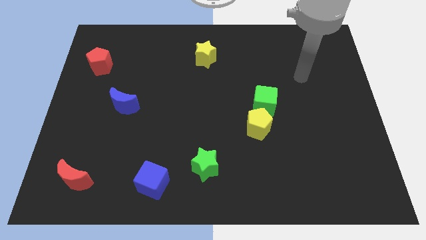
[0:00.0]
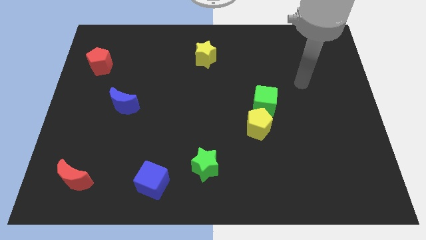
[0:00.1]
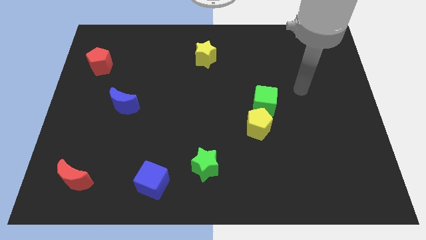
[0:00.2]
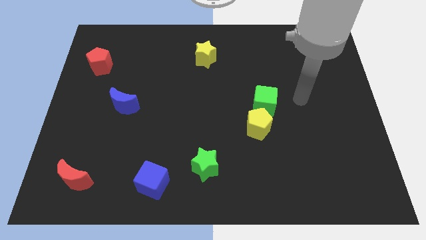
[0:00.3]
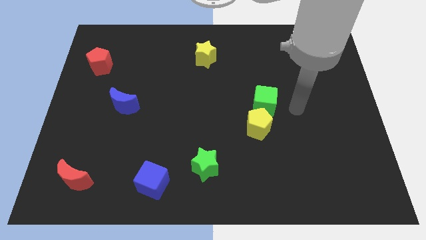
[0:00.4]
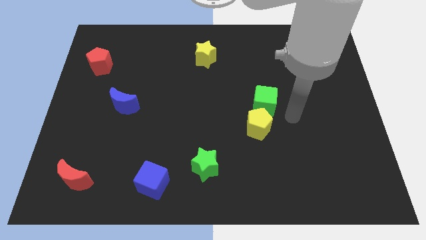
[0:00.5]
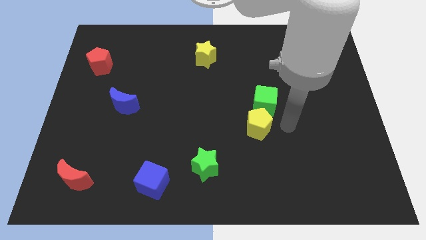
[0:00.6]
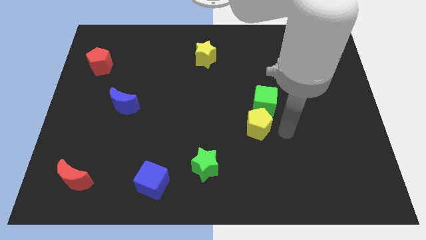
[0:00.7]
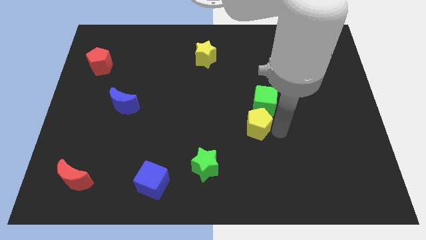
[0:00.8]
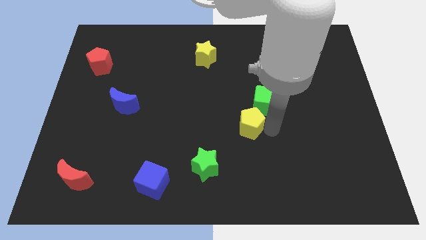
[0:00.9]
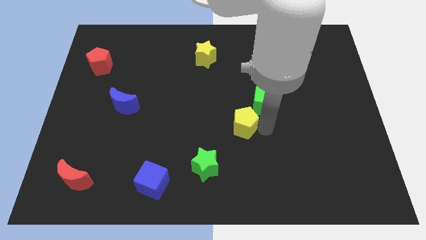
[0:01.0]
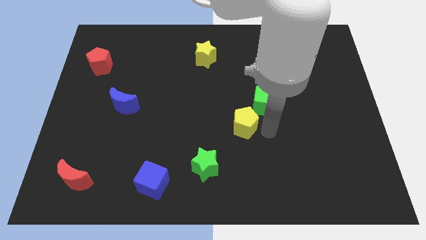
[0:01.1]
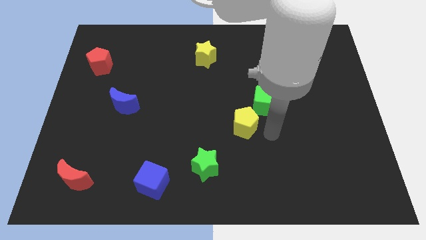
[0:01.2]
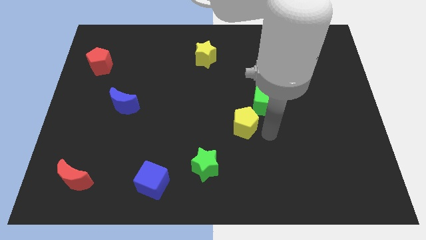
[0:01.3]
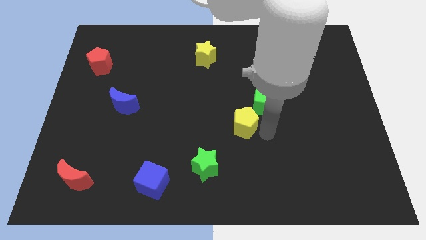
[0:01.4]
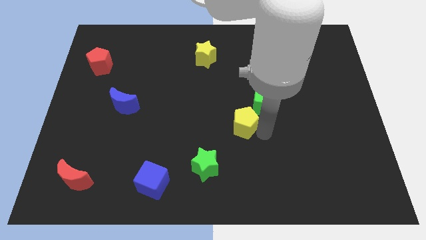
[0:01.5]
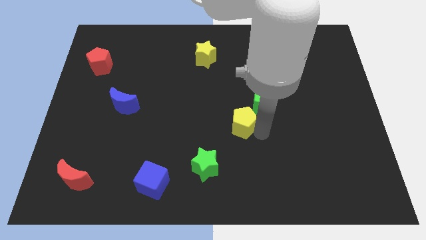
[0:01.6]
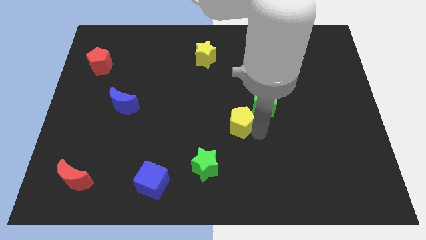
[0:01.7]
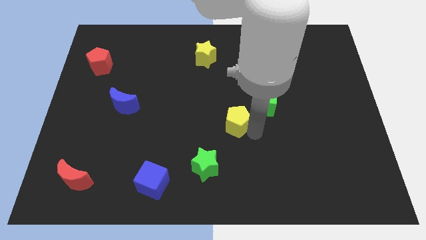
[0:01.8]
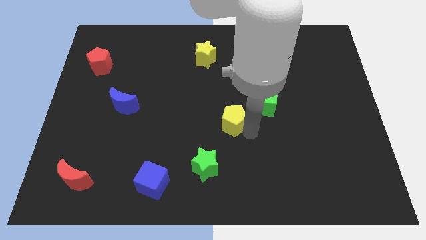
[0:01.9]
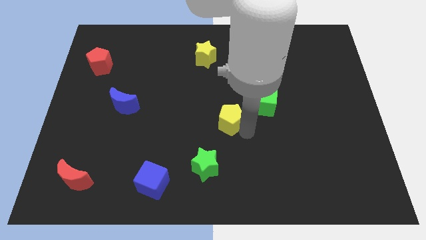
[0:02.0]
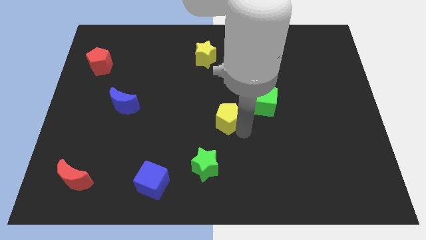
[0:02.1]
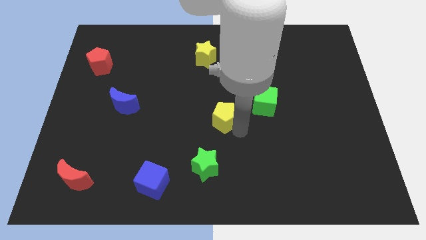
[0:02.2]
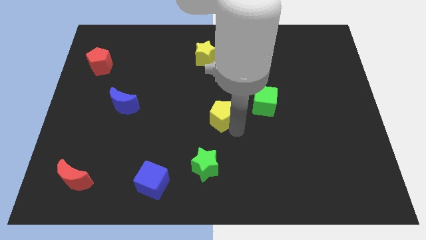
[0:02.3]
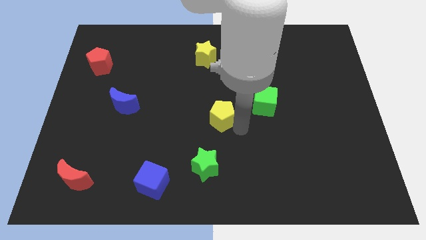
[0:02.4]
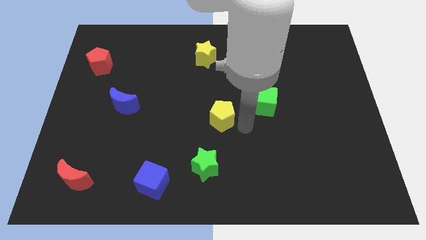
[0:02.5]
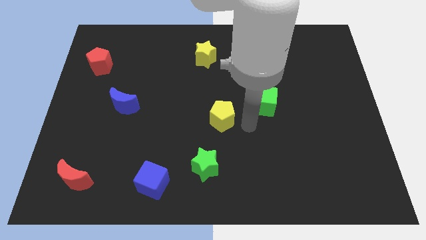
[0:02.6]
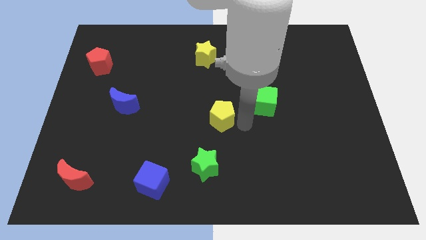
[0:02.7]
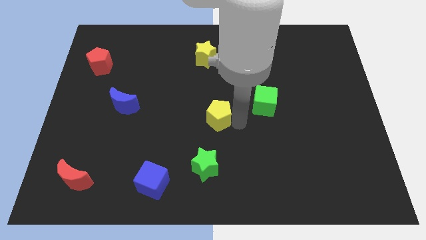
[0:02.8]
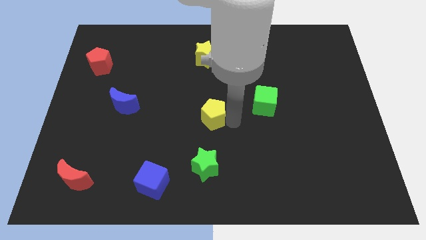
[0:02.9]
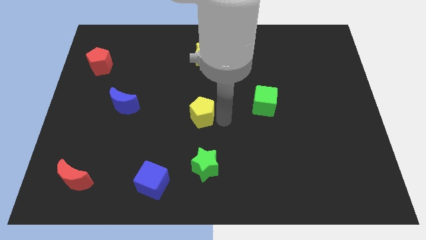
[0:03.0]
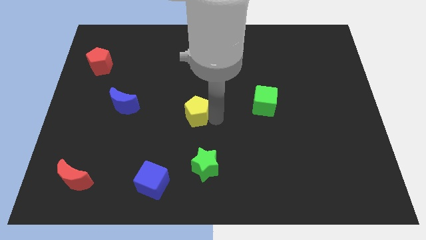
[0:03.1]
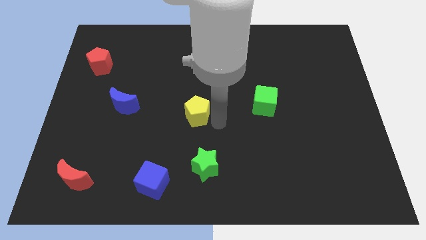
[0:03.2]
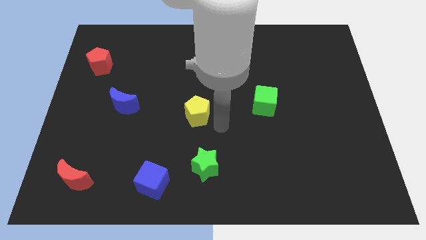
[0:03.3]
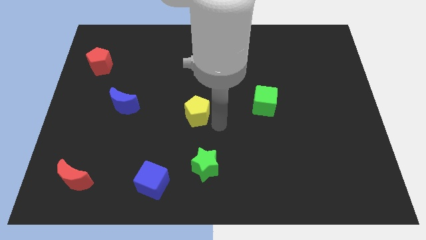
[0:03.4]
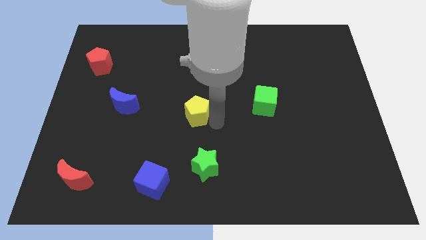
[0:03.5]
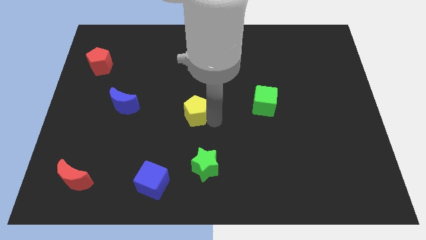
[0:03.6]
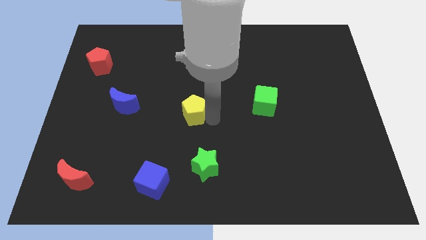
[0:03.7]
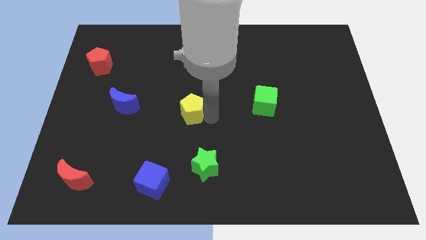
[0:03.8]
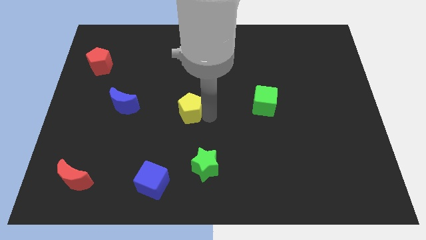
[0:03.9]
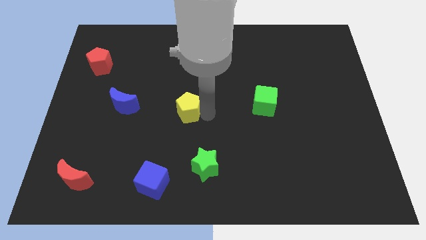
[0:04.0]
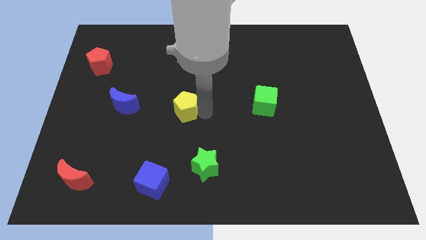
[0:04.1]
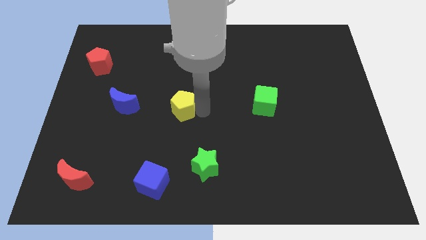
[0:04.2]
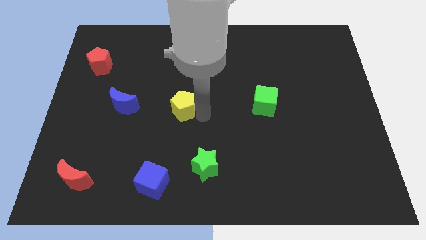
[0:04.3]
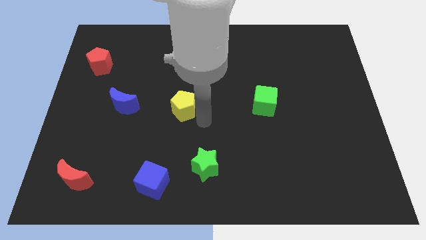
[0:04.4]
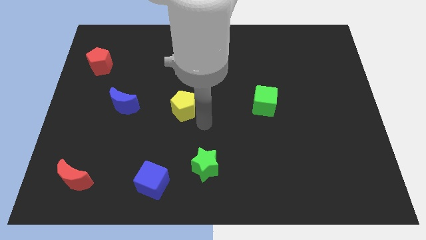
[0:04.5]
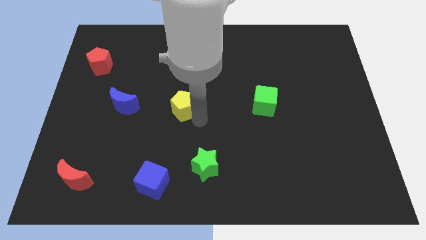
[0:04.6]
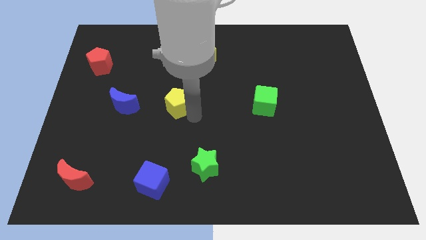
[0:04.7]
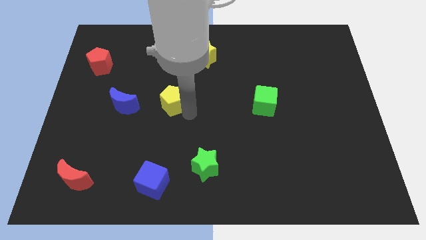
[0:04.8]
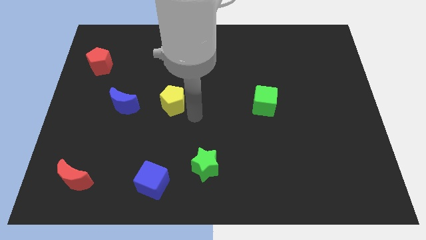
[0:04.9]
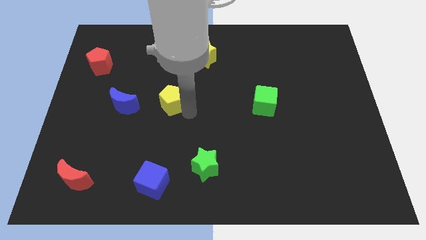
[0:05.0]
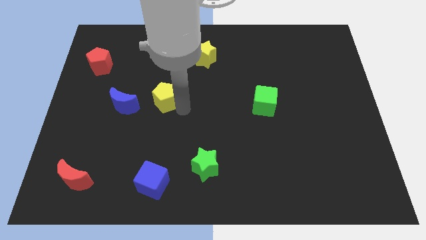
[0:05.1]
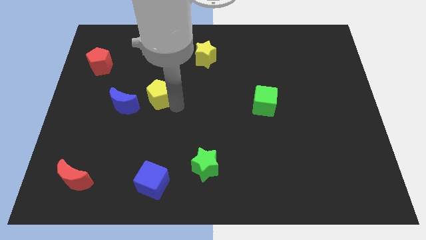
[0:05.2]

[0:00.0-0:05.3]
move the yellow pentagon to the top right of the blue moon

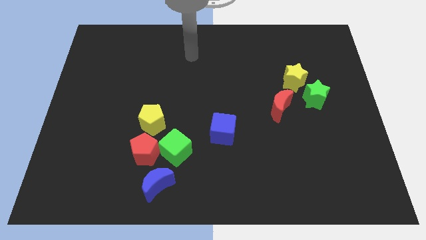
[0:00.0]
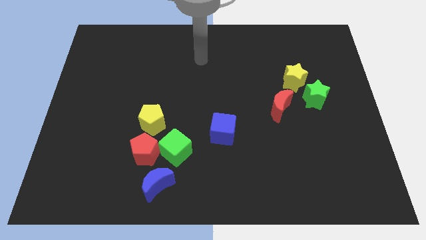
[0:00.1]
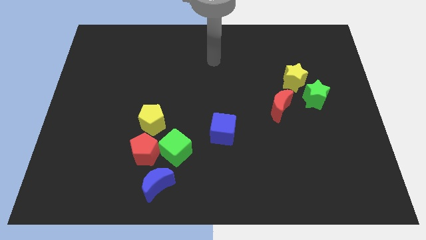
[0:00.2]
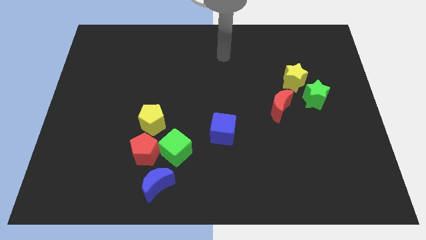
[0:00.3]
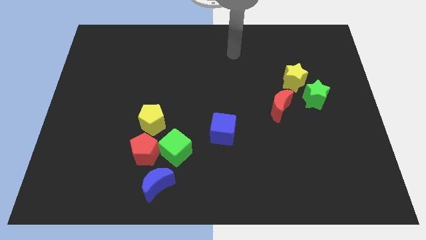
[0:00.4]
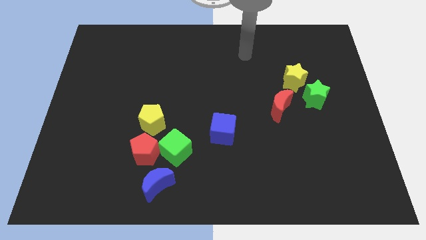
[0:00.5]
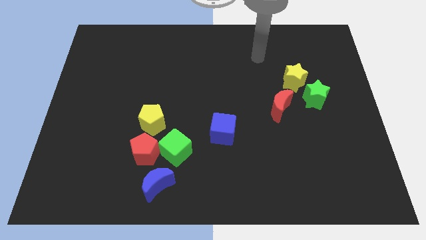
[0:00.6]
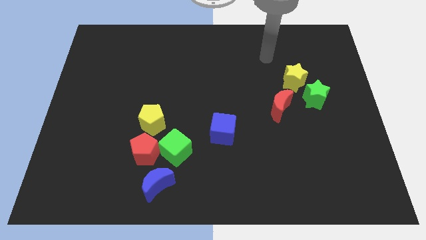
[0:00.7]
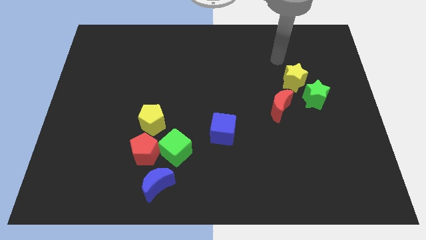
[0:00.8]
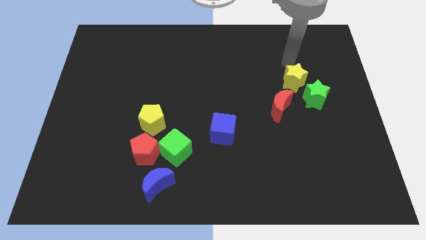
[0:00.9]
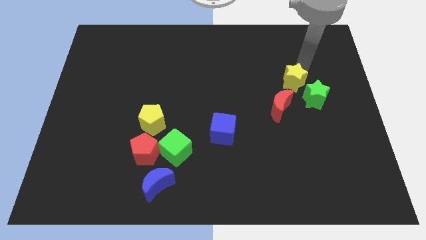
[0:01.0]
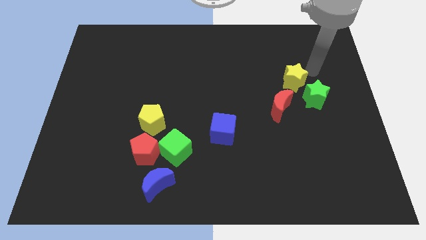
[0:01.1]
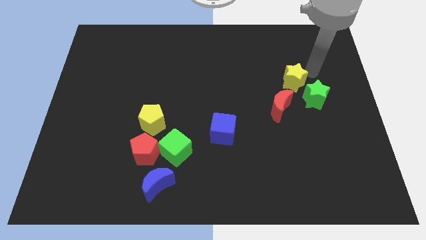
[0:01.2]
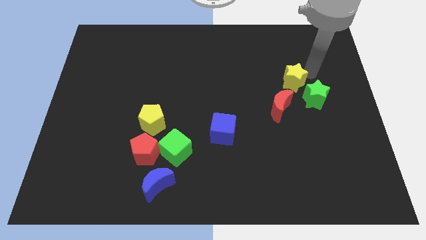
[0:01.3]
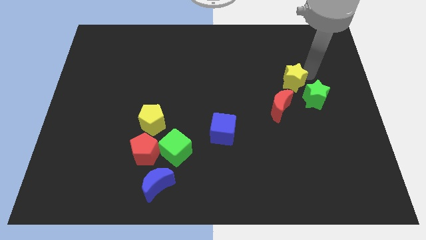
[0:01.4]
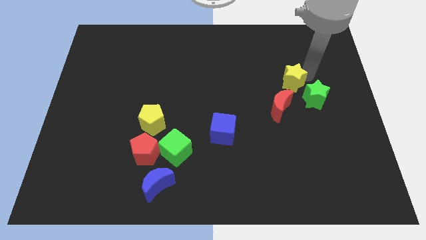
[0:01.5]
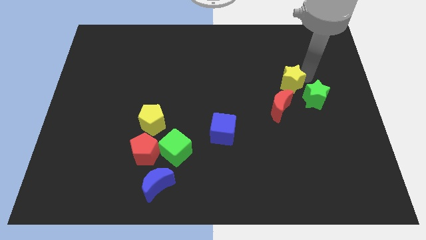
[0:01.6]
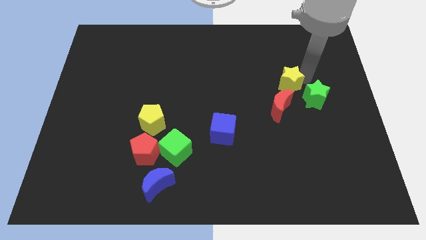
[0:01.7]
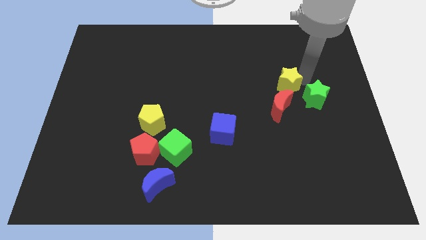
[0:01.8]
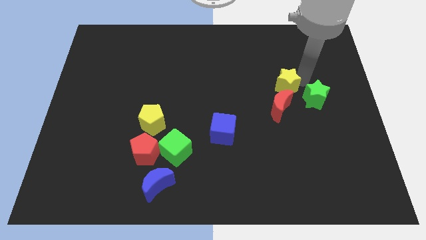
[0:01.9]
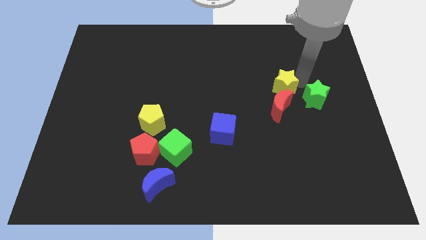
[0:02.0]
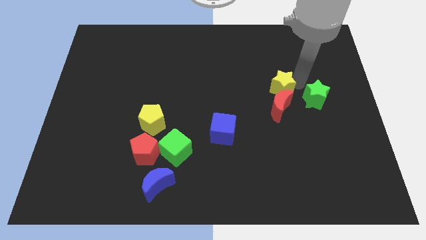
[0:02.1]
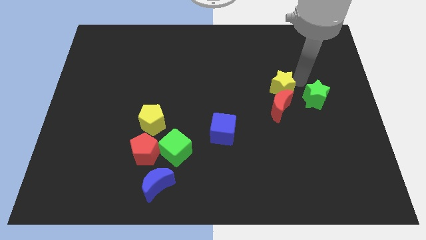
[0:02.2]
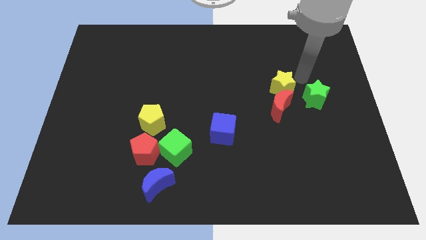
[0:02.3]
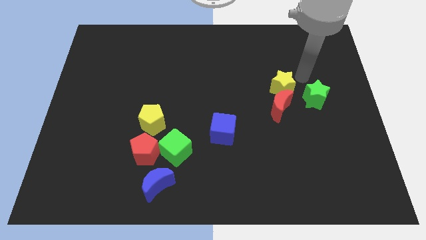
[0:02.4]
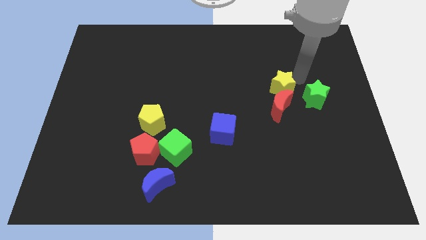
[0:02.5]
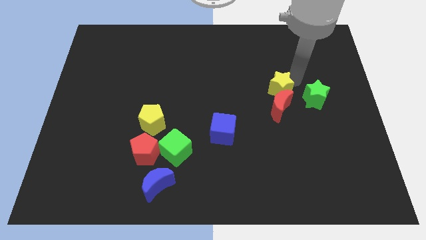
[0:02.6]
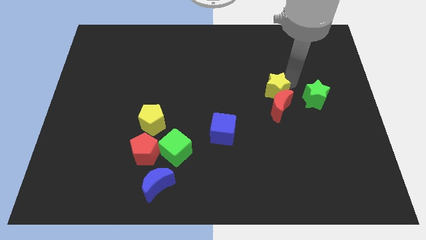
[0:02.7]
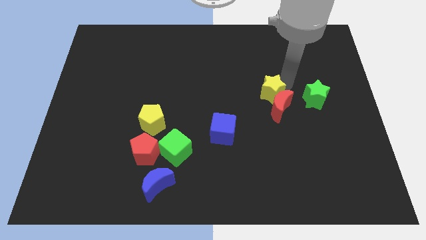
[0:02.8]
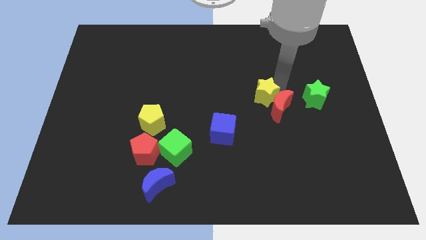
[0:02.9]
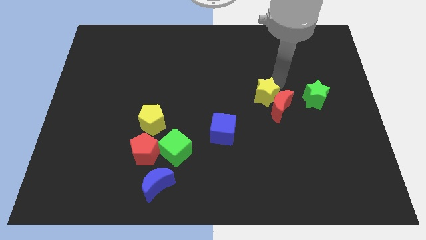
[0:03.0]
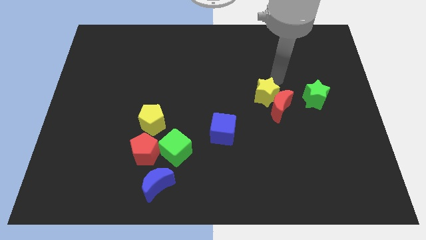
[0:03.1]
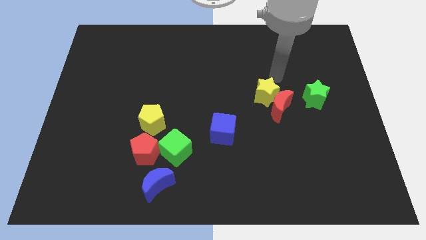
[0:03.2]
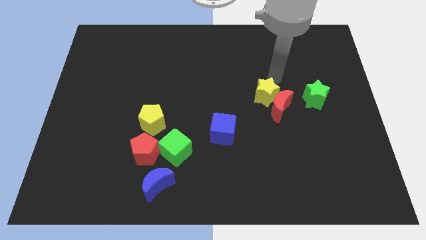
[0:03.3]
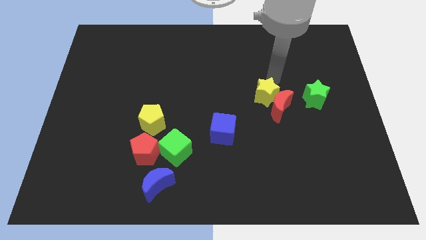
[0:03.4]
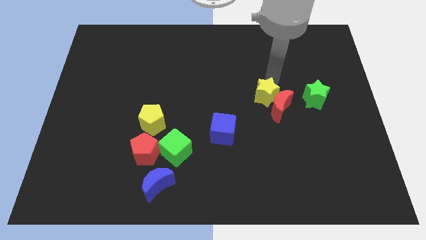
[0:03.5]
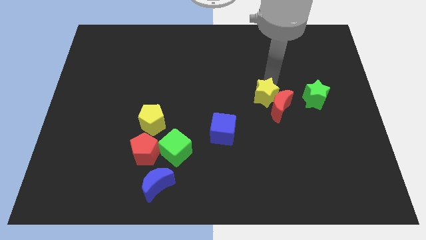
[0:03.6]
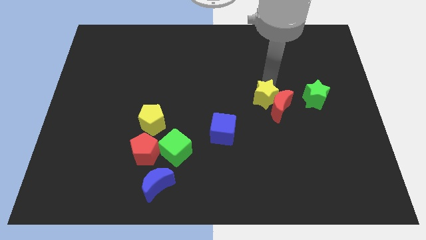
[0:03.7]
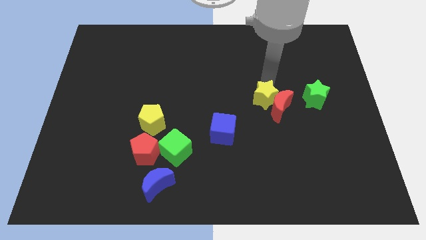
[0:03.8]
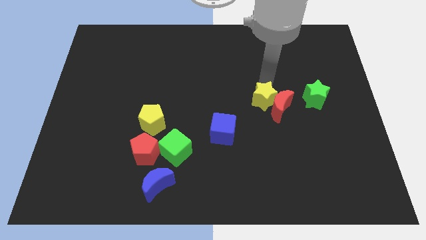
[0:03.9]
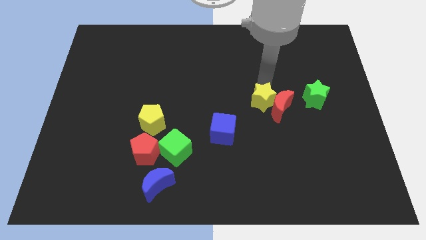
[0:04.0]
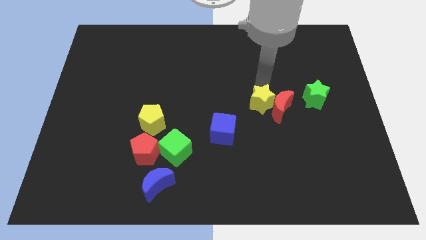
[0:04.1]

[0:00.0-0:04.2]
slide the yellow star to the top right side of the blue cube
